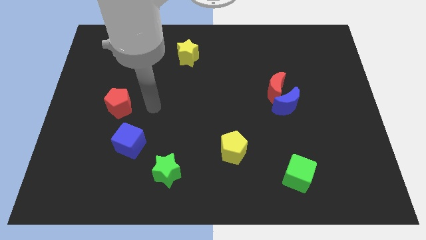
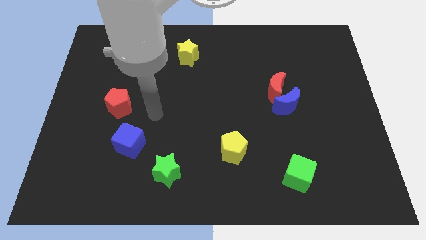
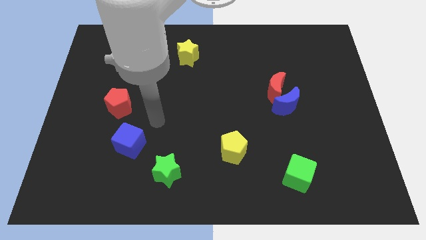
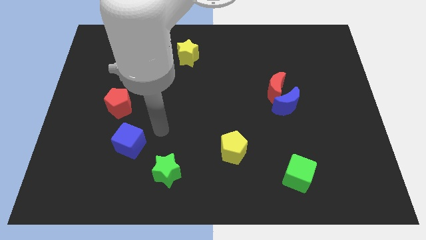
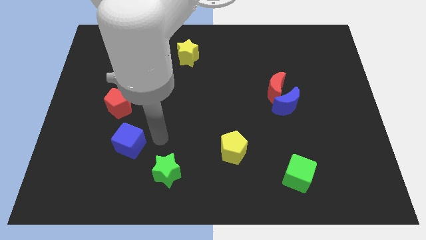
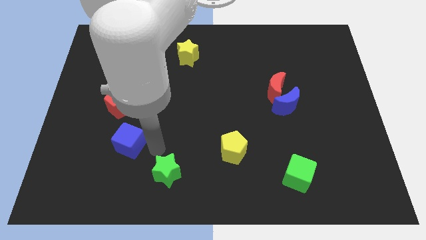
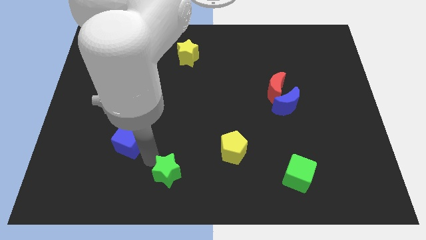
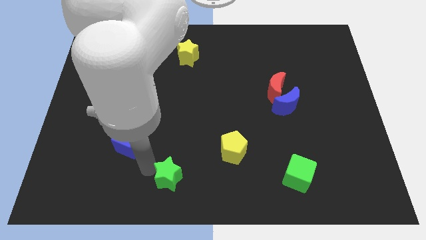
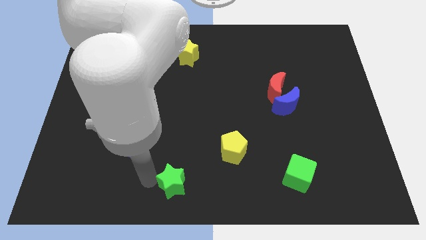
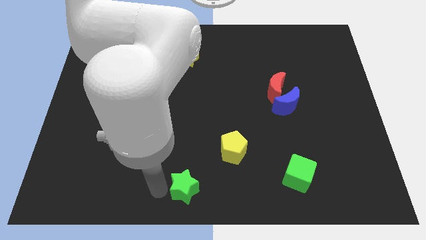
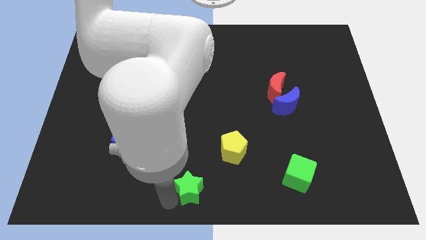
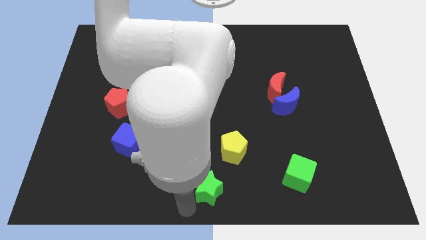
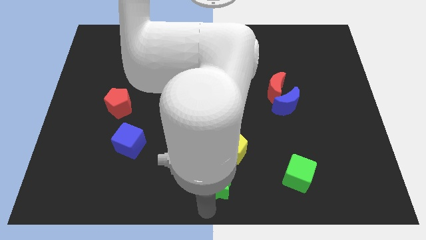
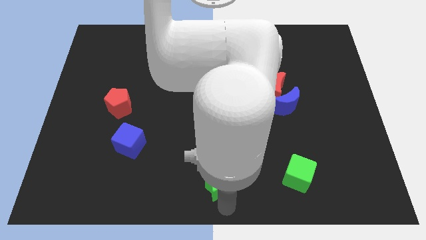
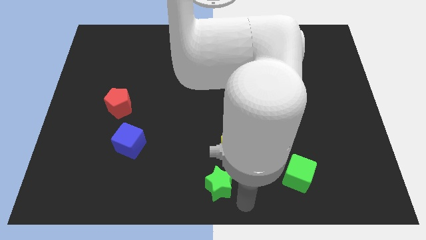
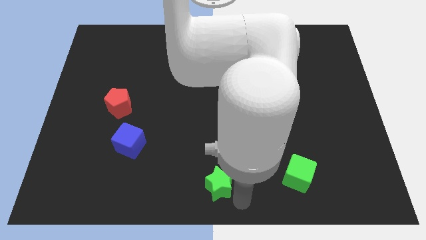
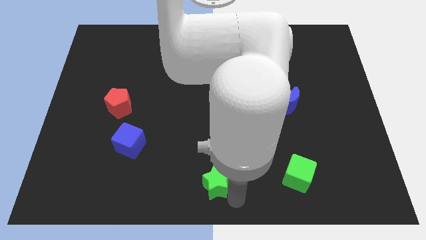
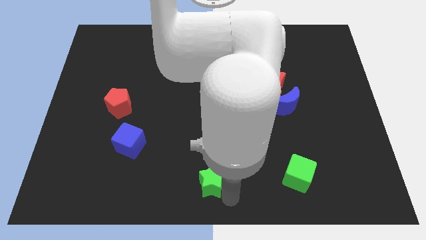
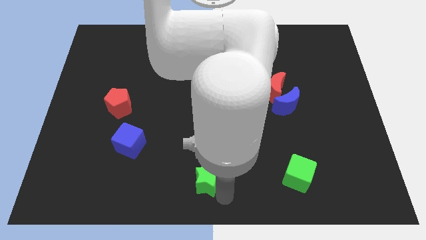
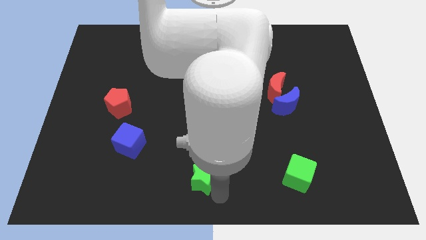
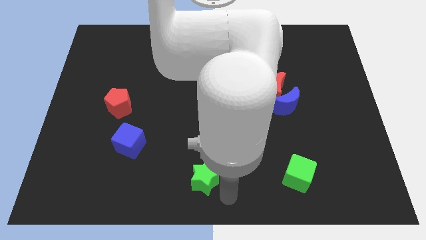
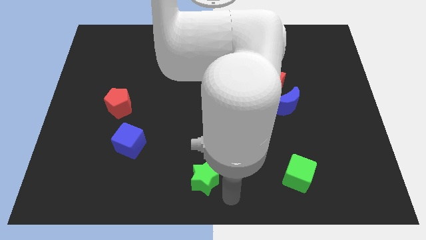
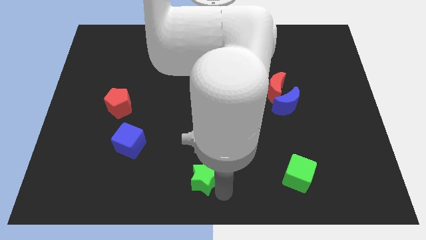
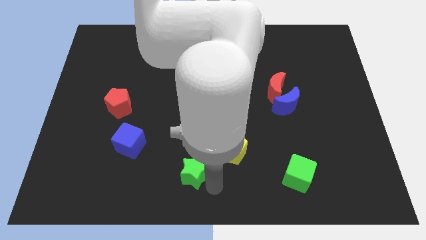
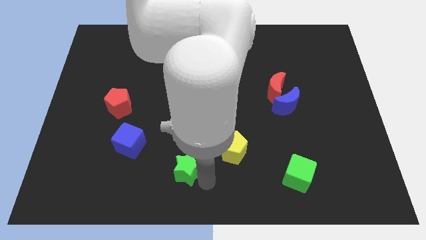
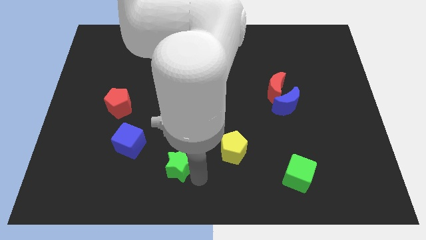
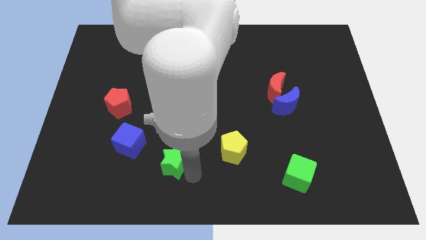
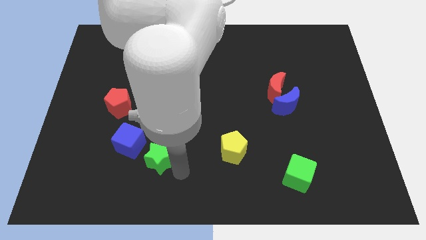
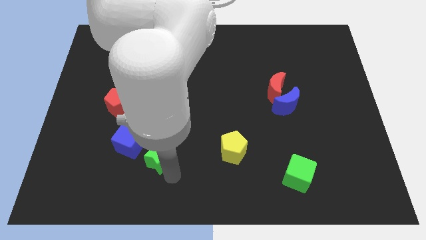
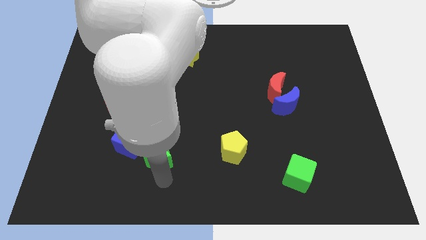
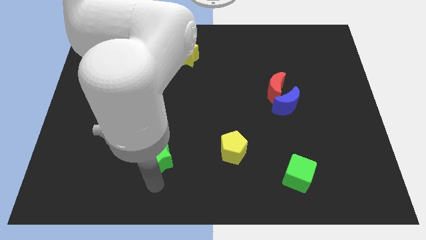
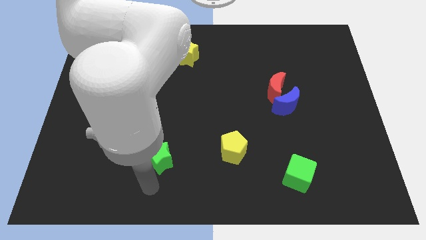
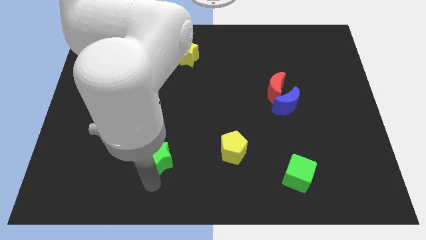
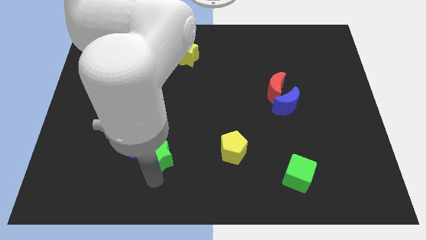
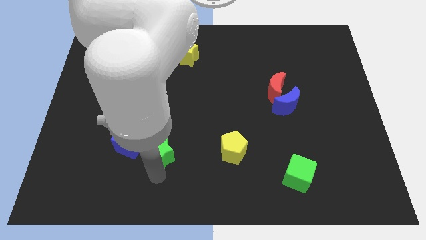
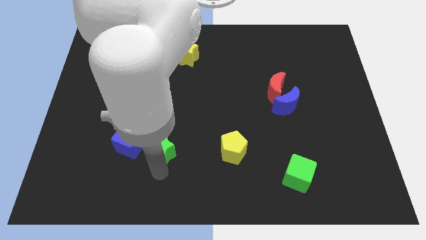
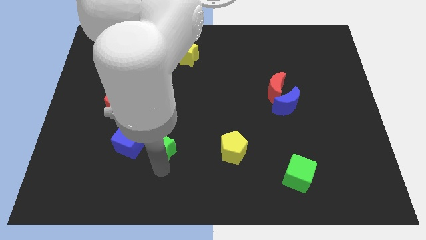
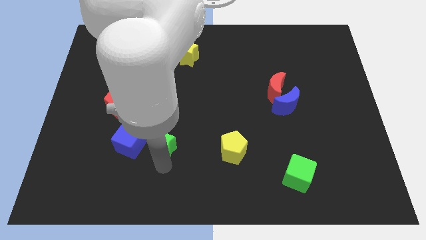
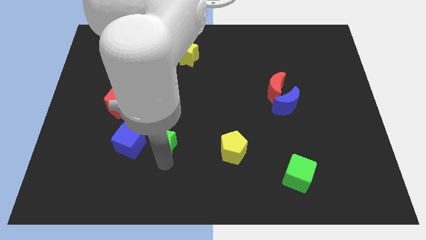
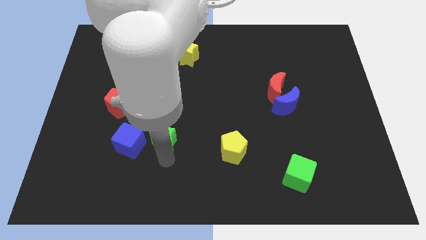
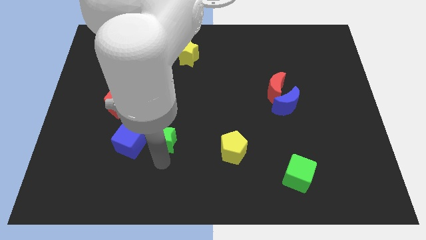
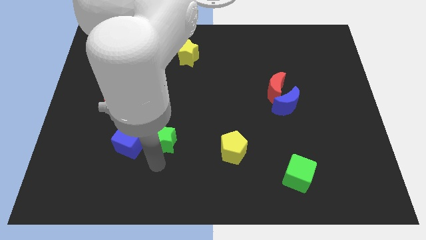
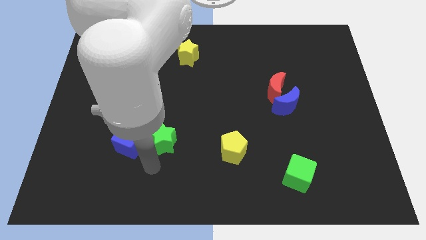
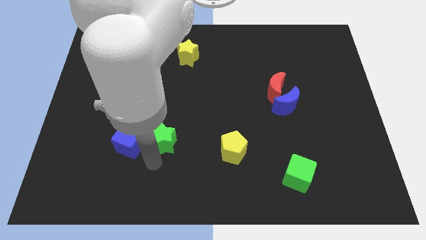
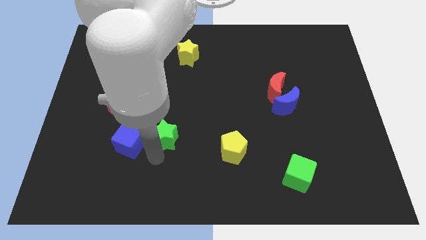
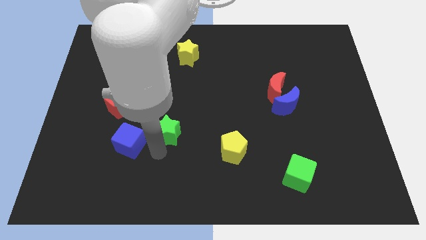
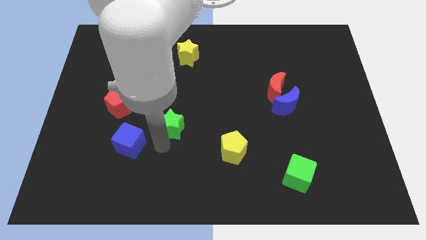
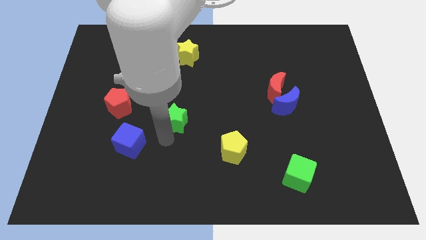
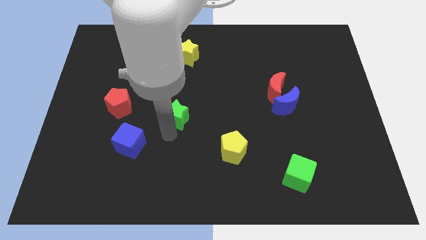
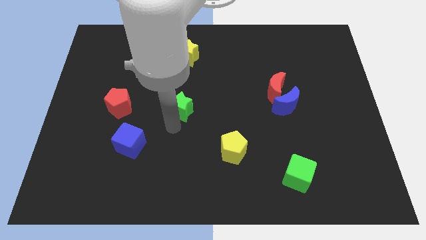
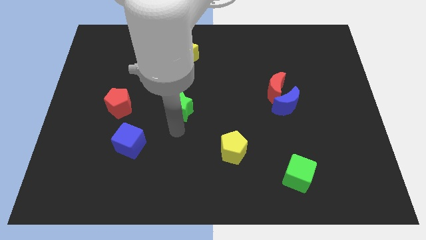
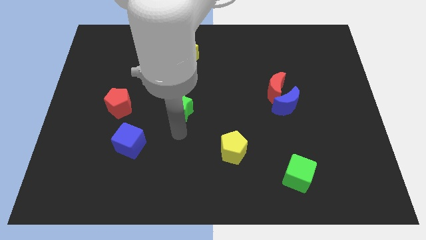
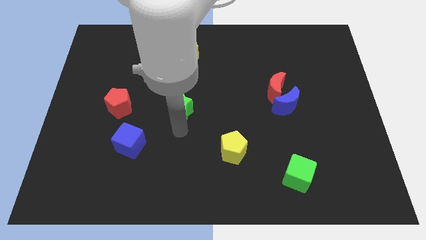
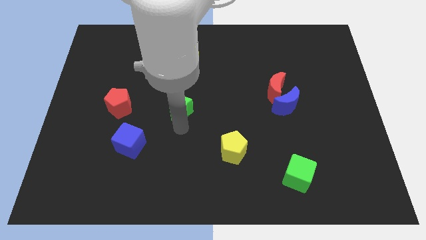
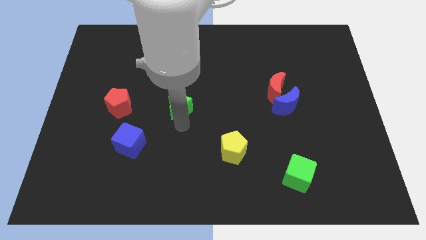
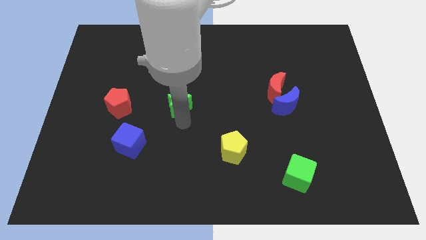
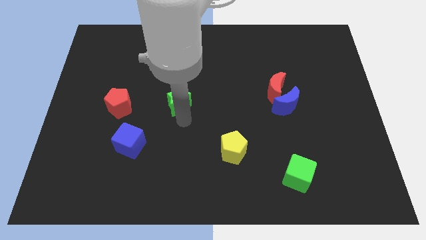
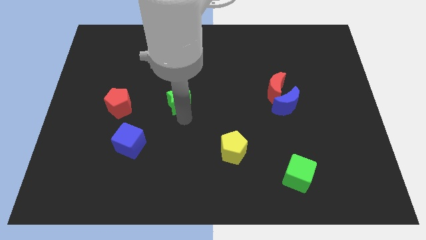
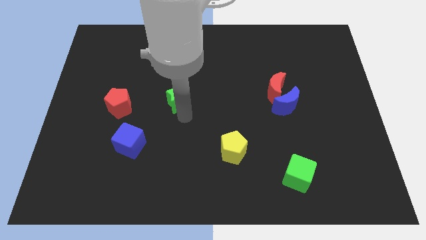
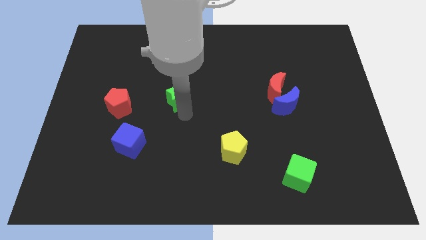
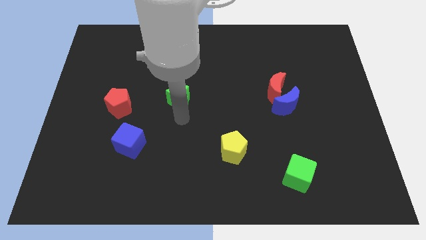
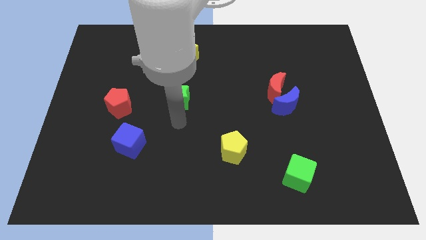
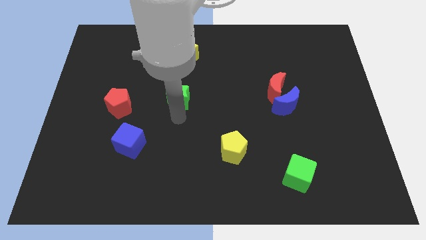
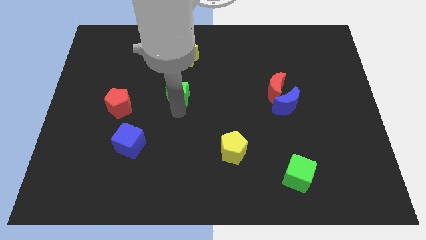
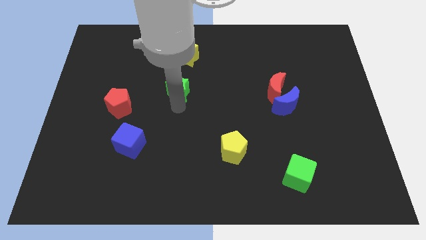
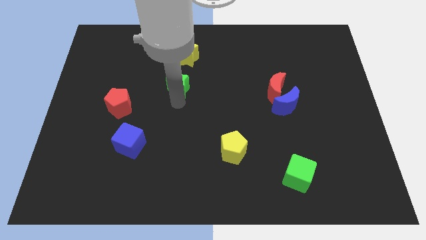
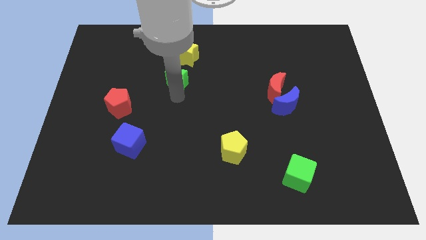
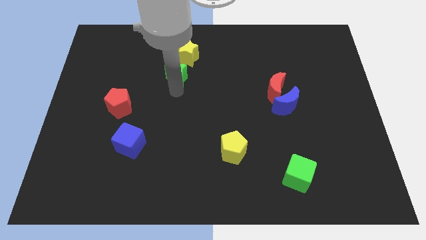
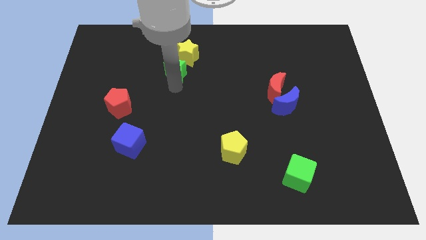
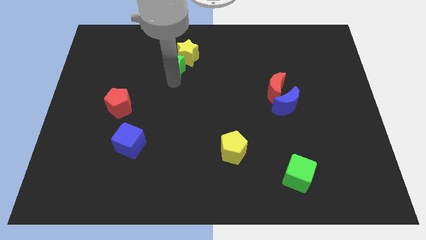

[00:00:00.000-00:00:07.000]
slide the green star to the yellow star
